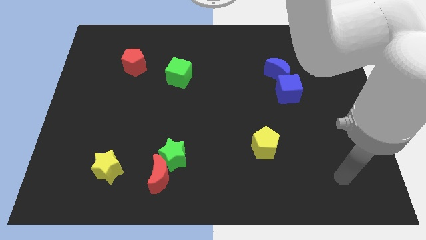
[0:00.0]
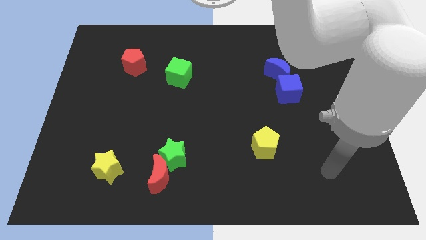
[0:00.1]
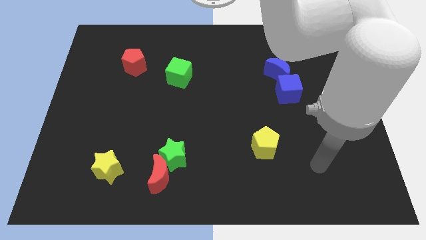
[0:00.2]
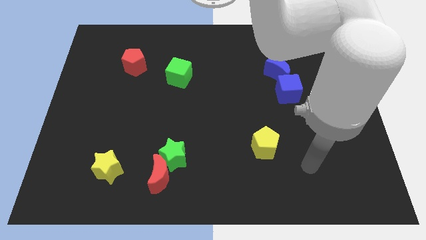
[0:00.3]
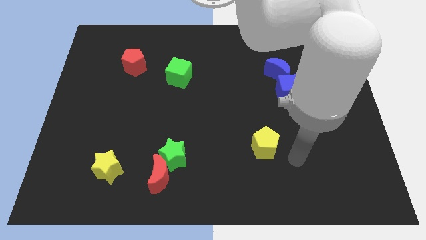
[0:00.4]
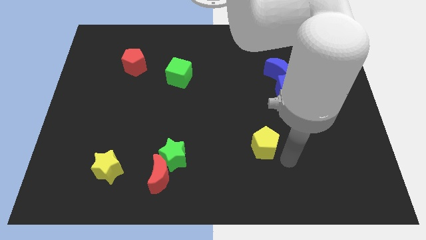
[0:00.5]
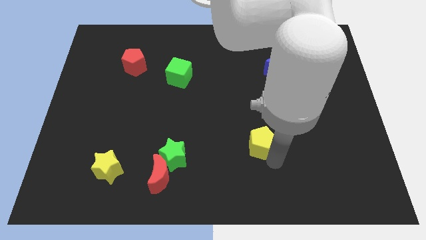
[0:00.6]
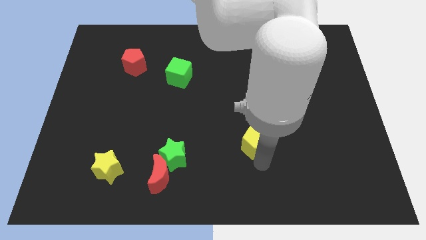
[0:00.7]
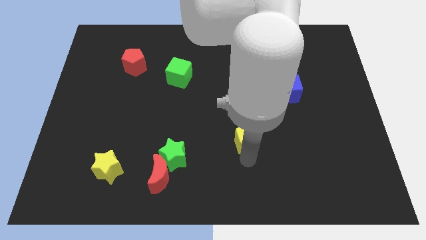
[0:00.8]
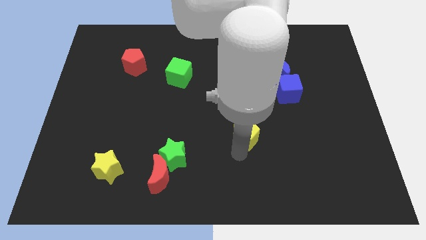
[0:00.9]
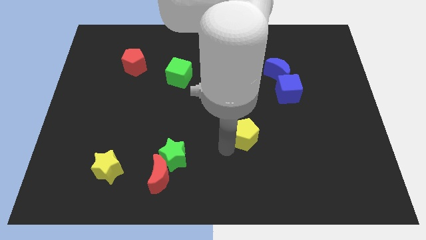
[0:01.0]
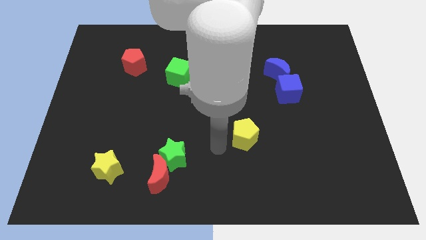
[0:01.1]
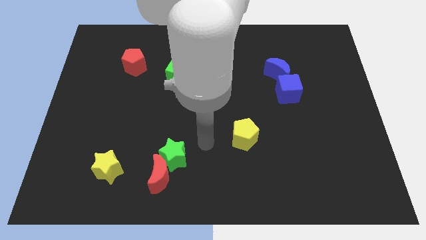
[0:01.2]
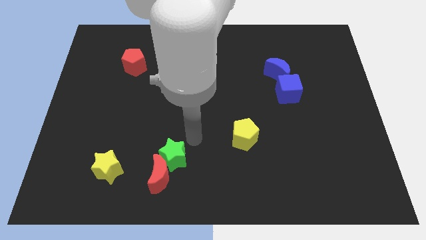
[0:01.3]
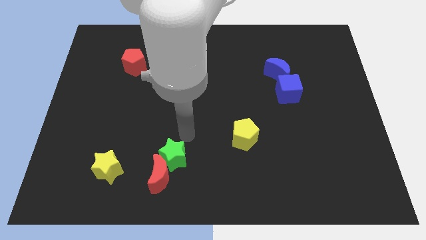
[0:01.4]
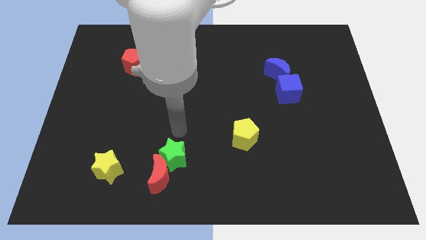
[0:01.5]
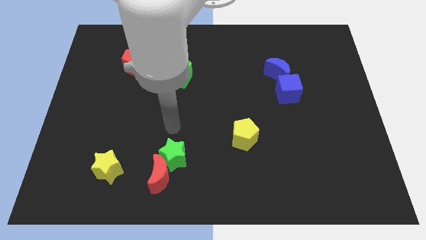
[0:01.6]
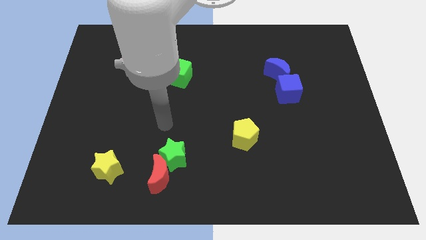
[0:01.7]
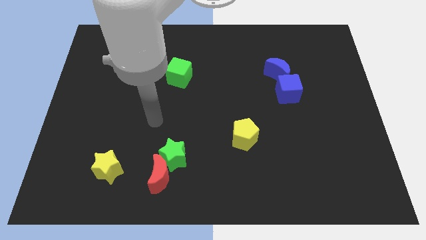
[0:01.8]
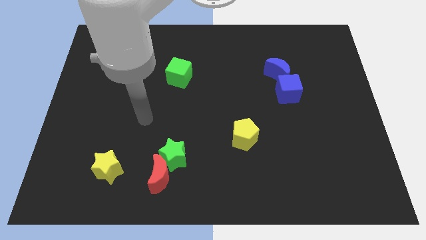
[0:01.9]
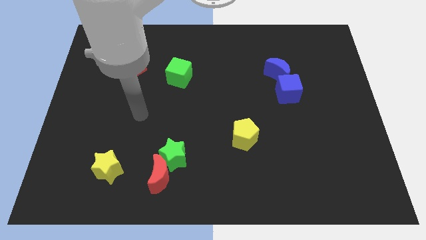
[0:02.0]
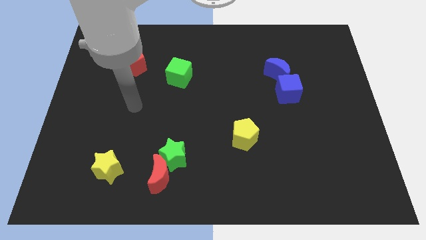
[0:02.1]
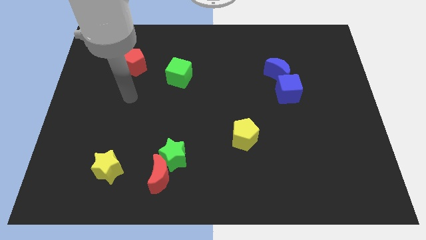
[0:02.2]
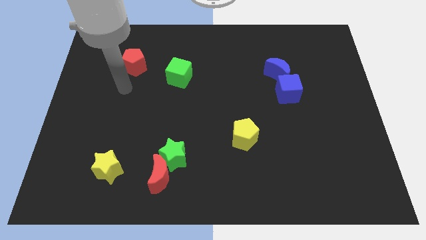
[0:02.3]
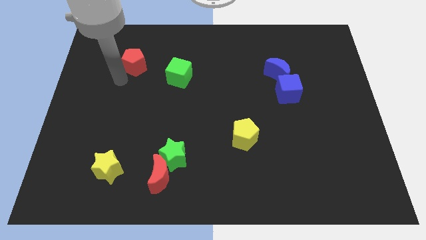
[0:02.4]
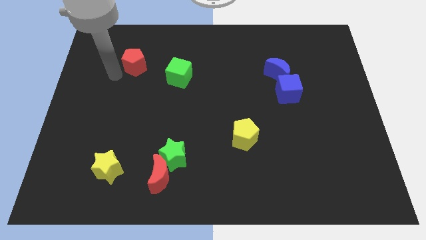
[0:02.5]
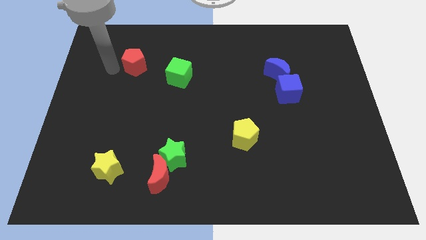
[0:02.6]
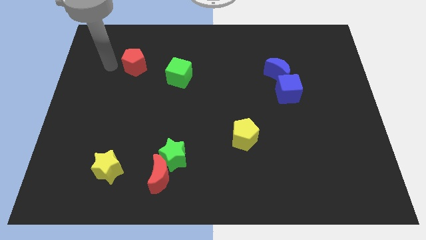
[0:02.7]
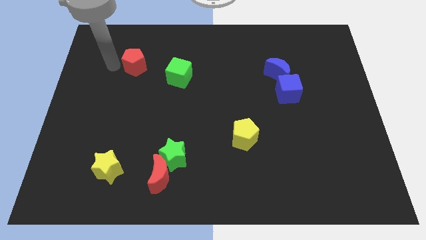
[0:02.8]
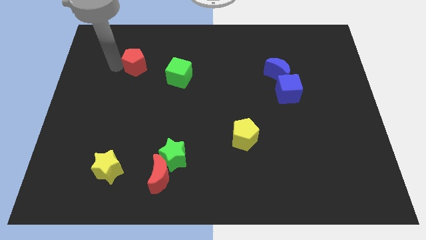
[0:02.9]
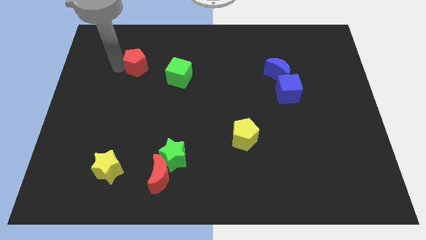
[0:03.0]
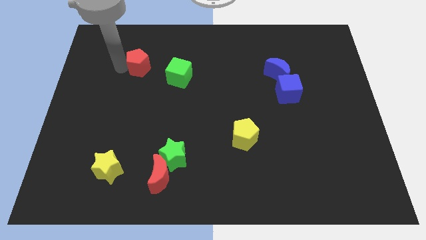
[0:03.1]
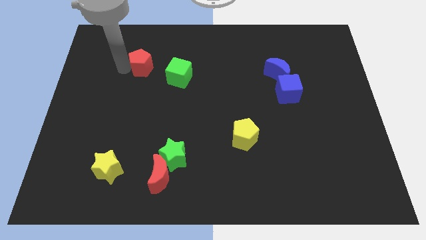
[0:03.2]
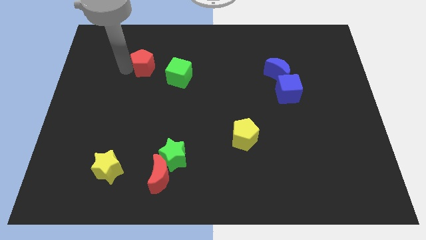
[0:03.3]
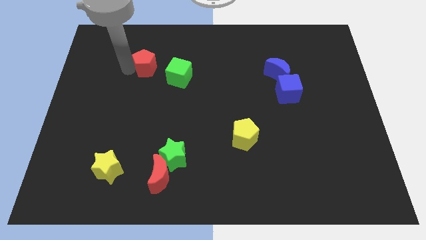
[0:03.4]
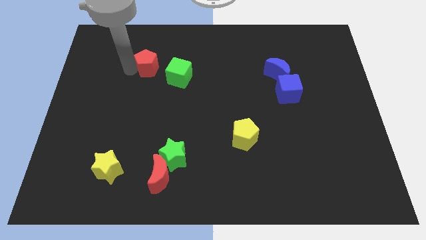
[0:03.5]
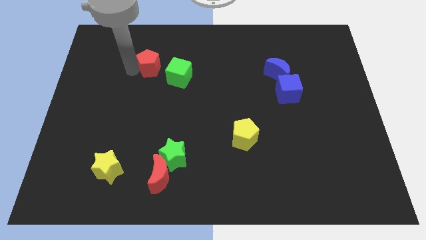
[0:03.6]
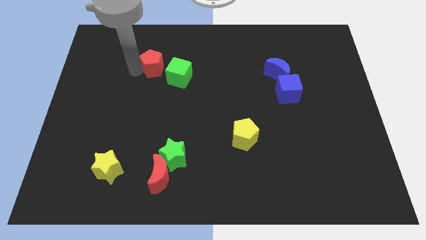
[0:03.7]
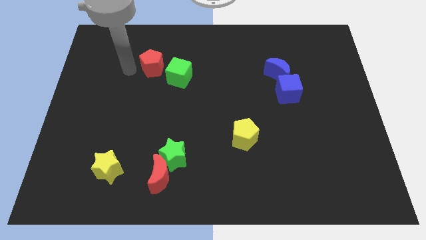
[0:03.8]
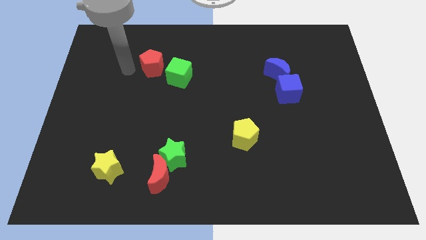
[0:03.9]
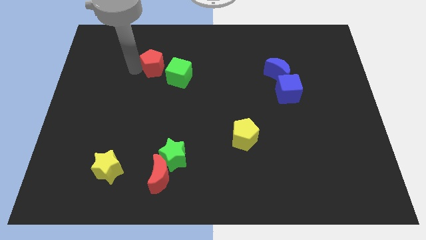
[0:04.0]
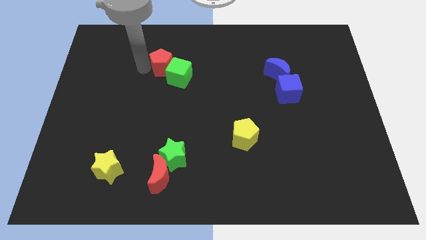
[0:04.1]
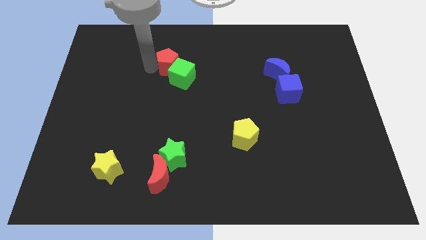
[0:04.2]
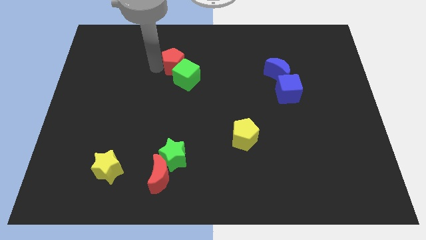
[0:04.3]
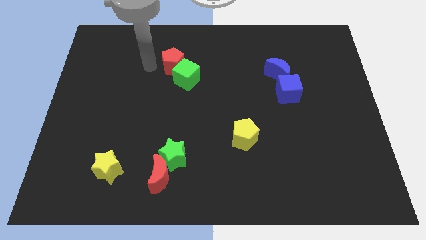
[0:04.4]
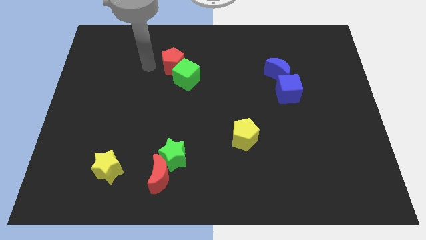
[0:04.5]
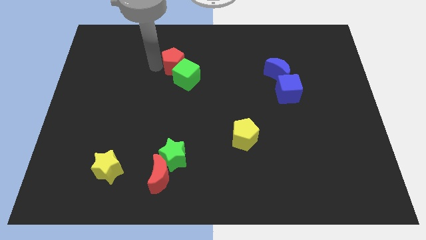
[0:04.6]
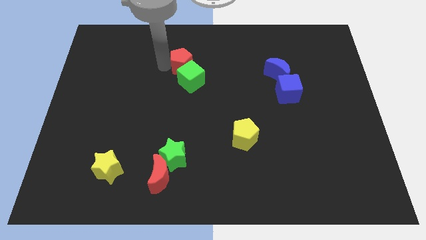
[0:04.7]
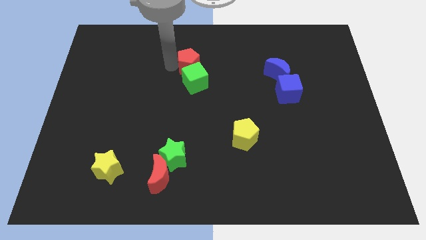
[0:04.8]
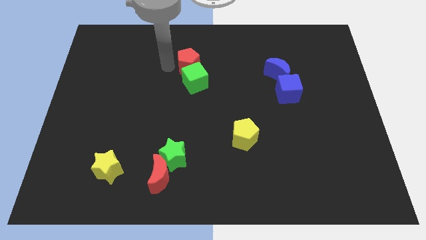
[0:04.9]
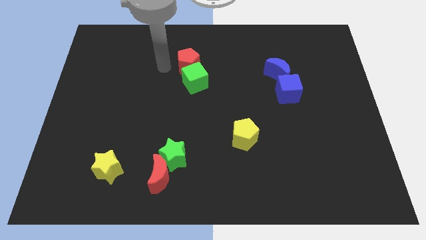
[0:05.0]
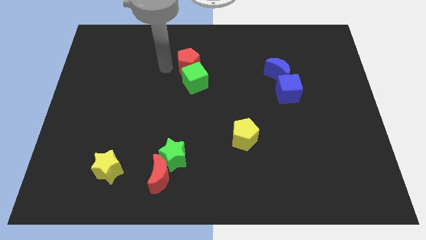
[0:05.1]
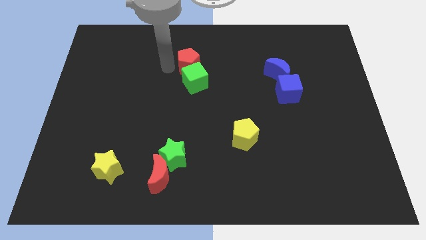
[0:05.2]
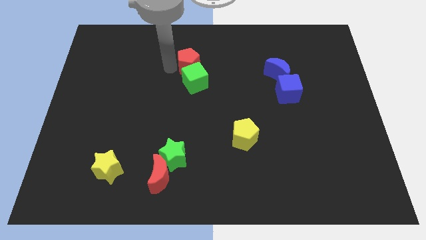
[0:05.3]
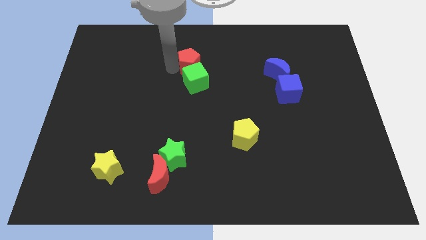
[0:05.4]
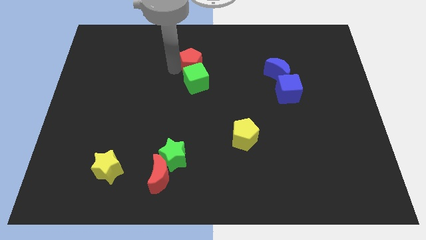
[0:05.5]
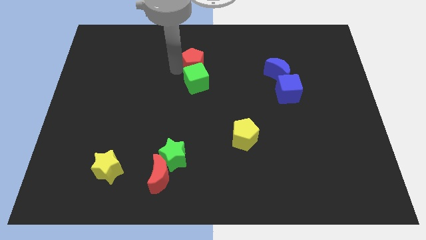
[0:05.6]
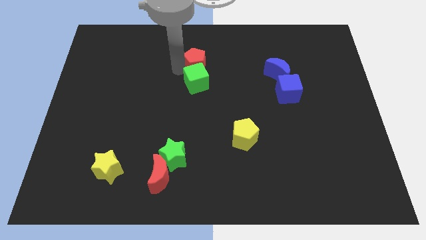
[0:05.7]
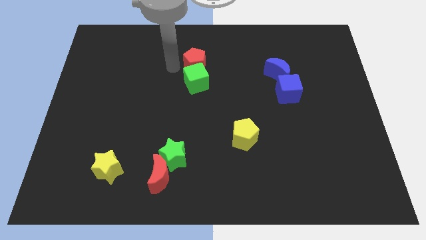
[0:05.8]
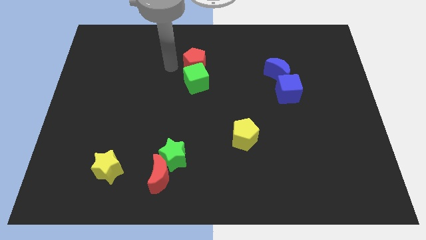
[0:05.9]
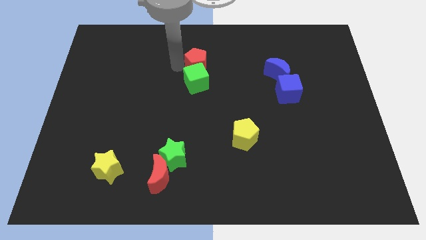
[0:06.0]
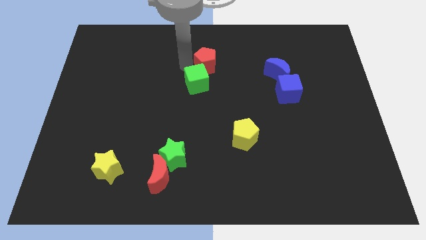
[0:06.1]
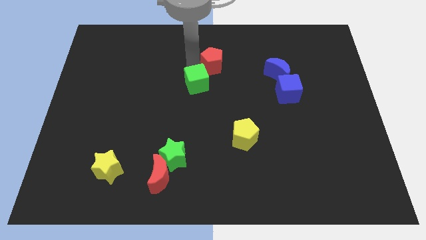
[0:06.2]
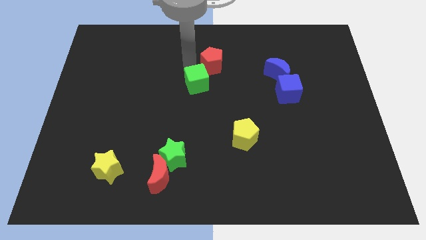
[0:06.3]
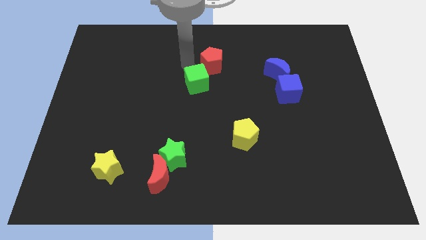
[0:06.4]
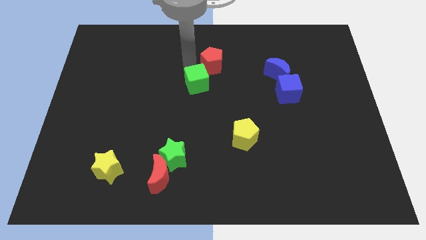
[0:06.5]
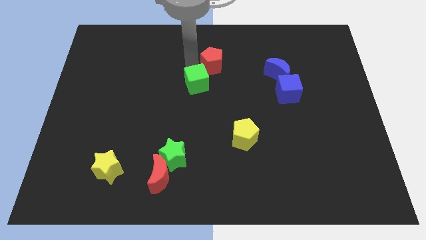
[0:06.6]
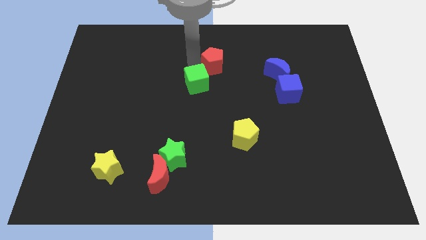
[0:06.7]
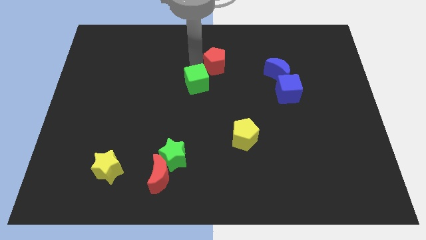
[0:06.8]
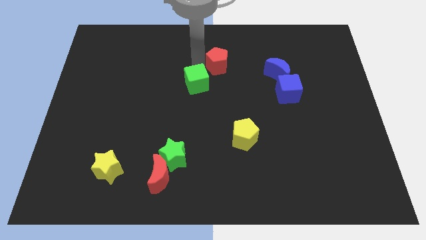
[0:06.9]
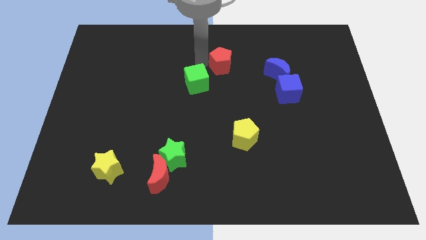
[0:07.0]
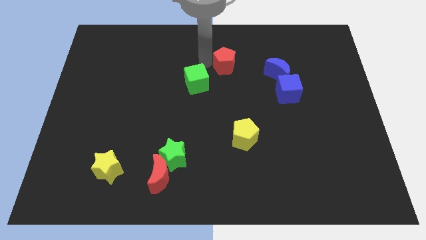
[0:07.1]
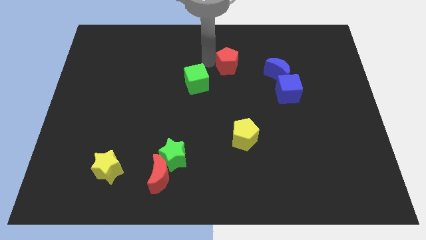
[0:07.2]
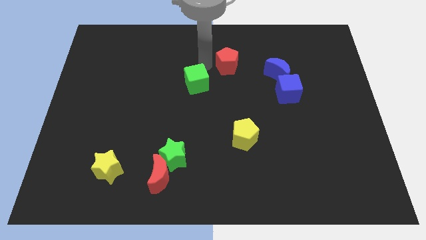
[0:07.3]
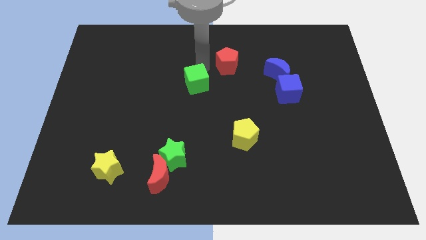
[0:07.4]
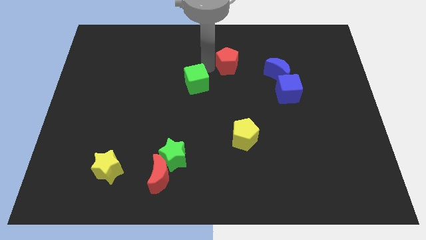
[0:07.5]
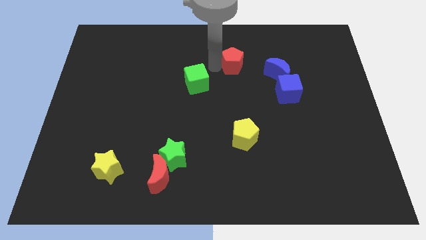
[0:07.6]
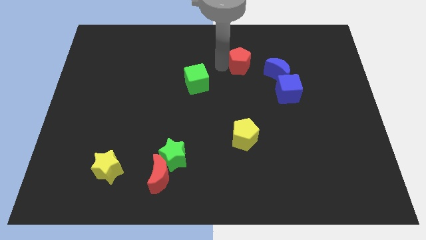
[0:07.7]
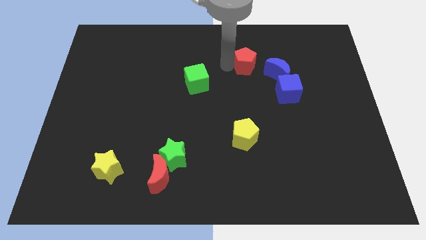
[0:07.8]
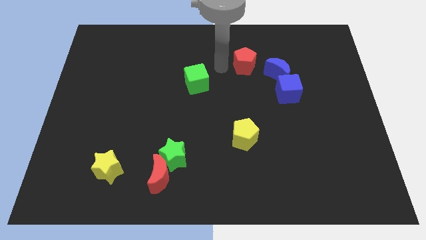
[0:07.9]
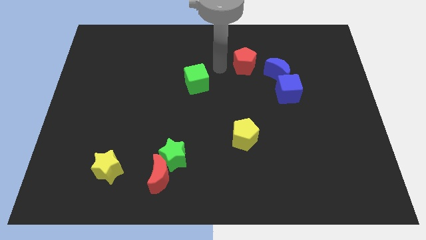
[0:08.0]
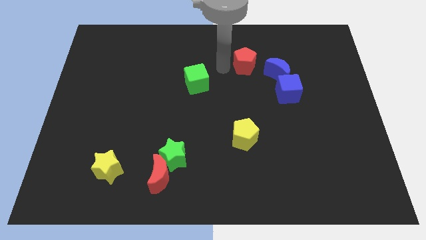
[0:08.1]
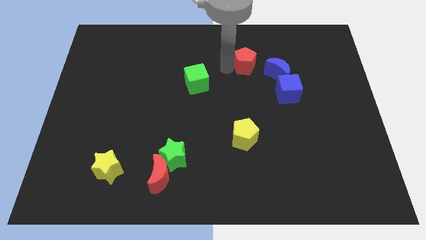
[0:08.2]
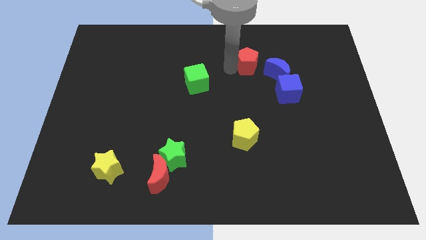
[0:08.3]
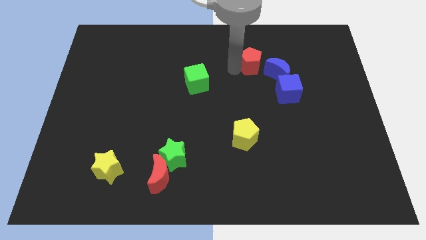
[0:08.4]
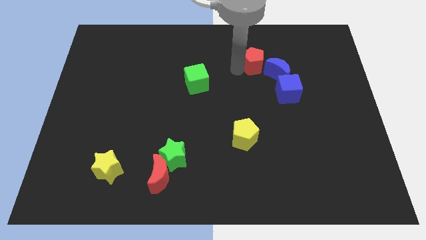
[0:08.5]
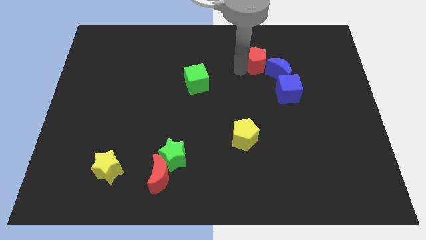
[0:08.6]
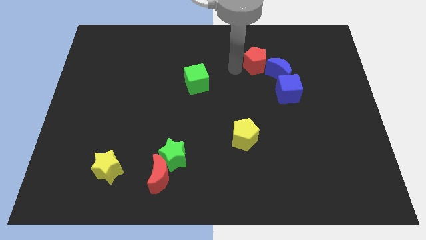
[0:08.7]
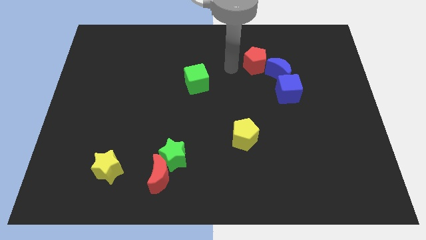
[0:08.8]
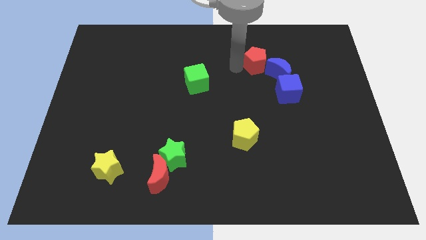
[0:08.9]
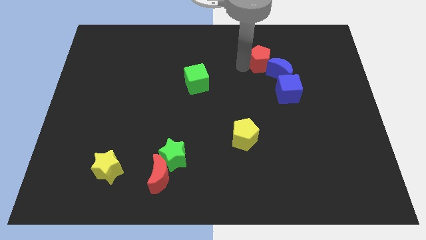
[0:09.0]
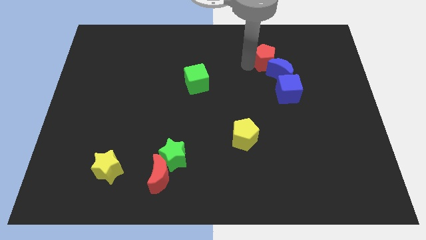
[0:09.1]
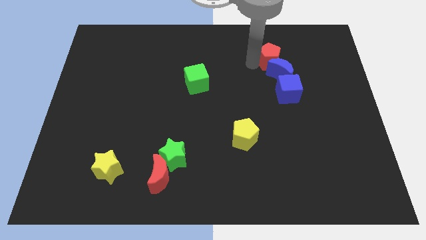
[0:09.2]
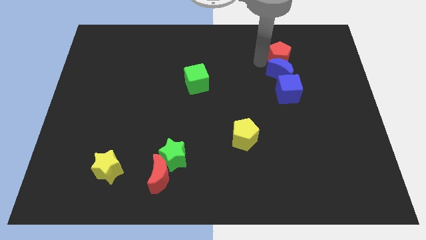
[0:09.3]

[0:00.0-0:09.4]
put the red pentagon to the top right side of the blue moon
